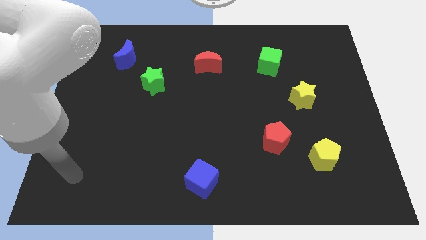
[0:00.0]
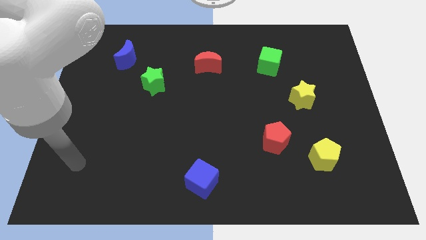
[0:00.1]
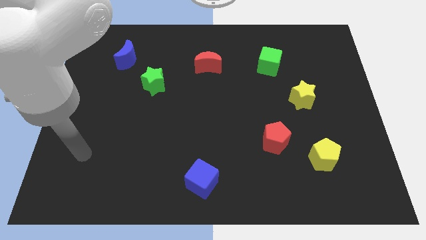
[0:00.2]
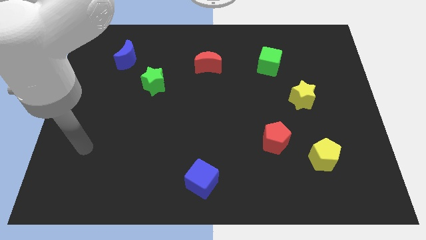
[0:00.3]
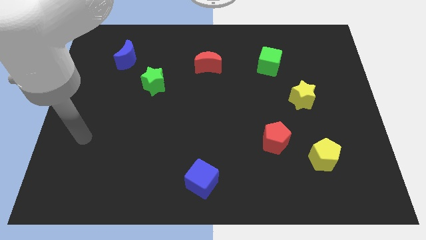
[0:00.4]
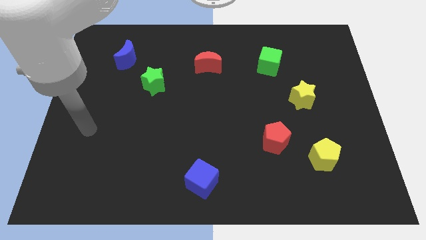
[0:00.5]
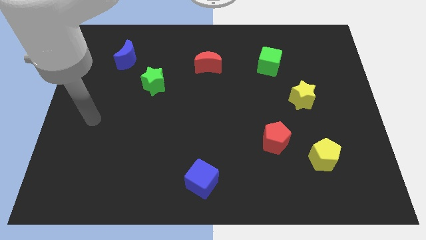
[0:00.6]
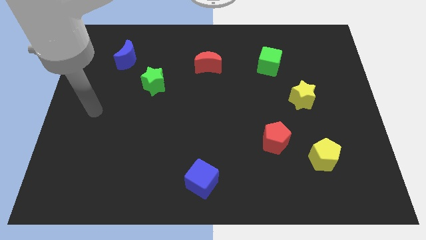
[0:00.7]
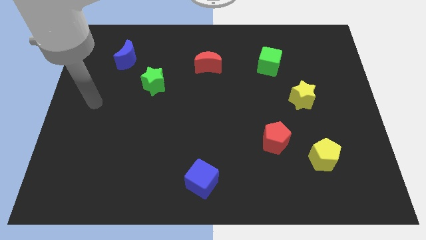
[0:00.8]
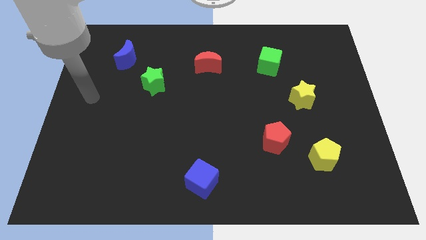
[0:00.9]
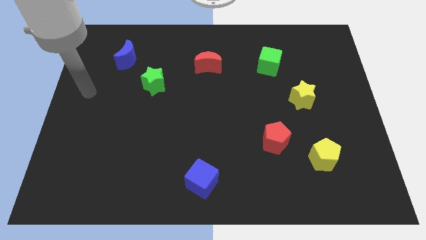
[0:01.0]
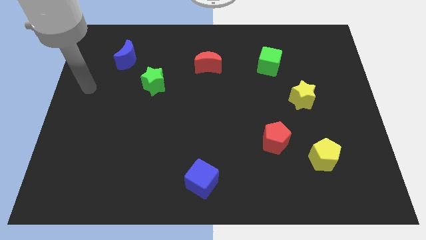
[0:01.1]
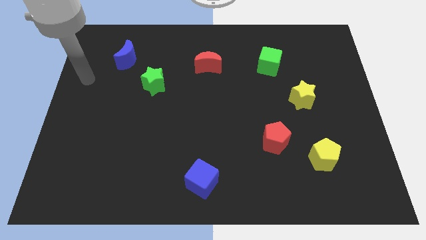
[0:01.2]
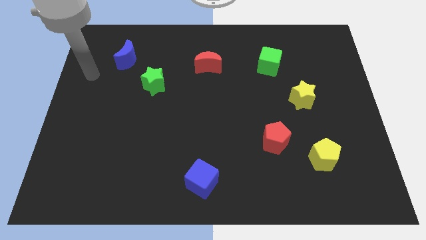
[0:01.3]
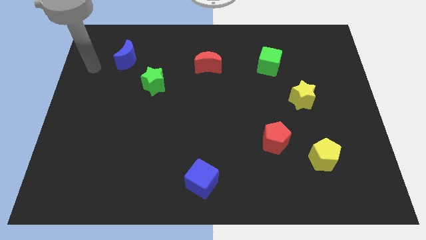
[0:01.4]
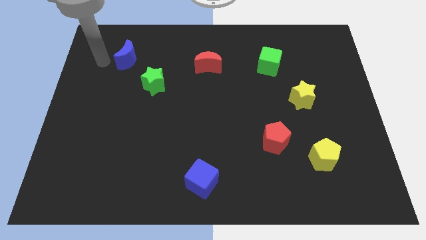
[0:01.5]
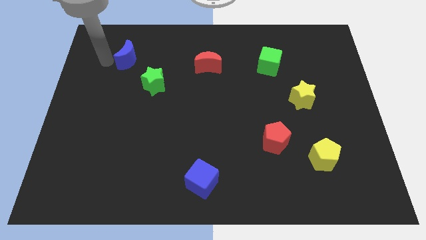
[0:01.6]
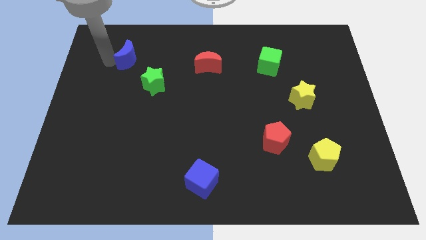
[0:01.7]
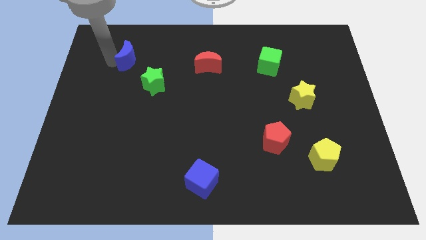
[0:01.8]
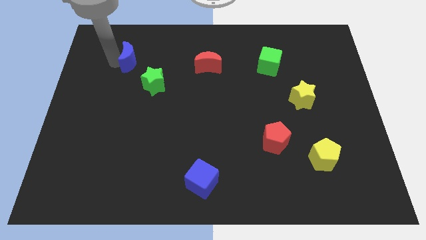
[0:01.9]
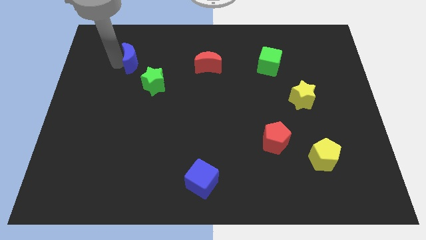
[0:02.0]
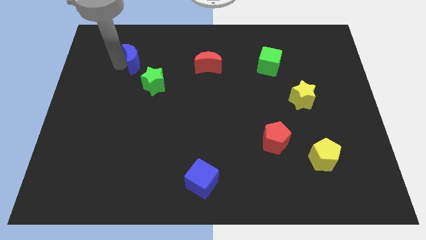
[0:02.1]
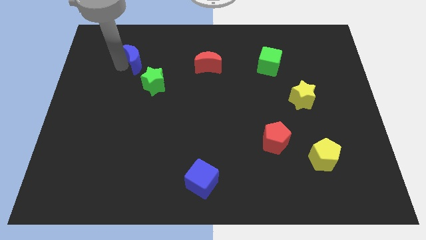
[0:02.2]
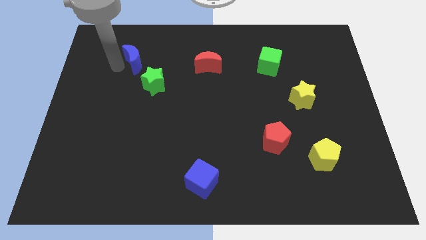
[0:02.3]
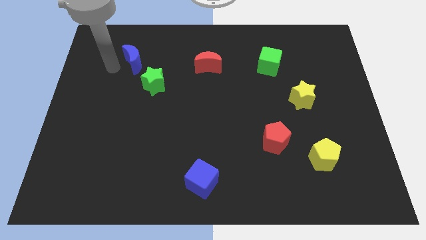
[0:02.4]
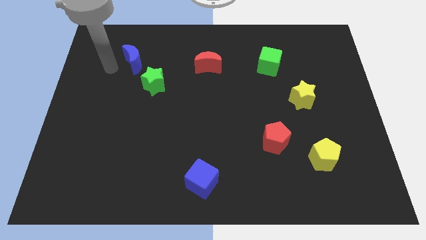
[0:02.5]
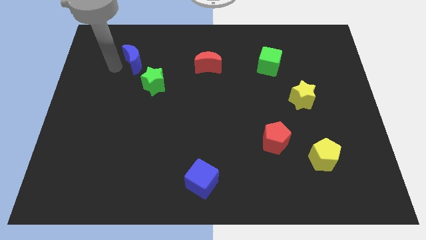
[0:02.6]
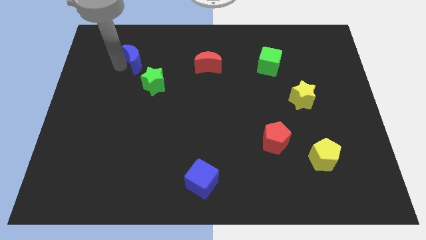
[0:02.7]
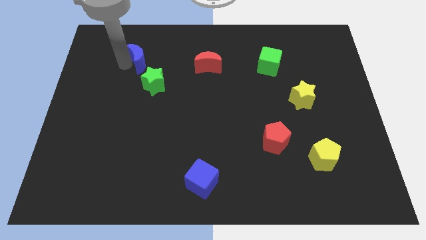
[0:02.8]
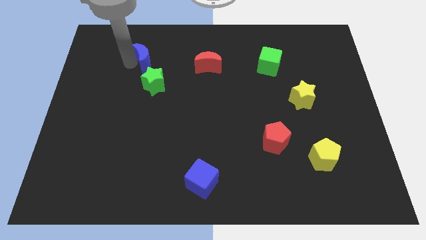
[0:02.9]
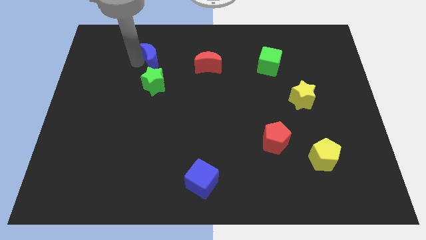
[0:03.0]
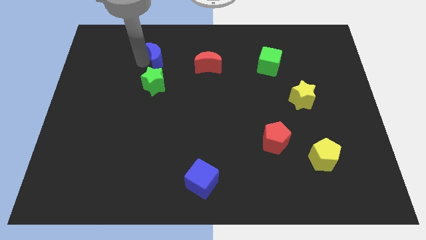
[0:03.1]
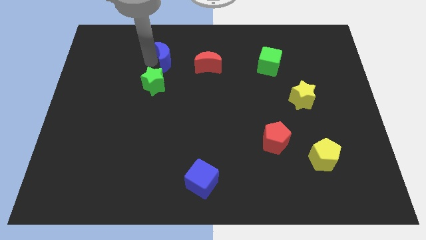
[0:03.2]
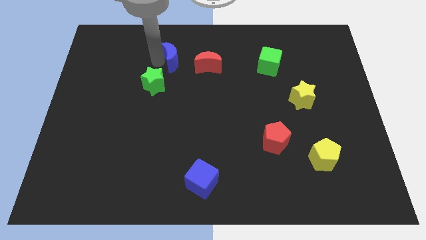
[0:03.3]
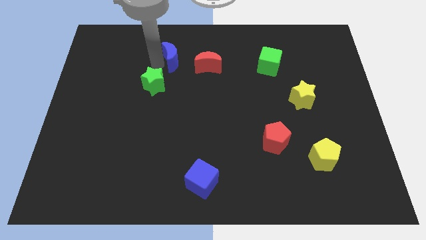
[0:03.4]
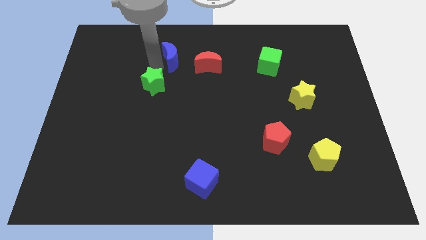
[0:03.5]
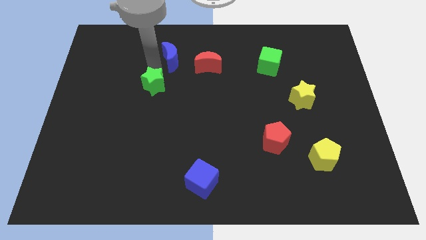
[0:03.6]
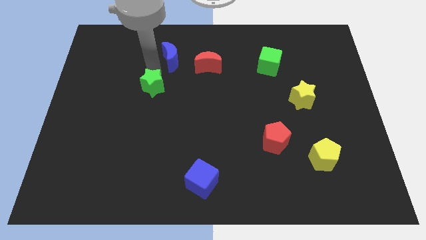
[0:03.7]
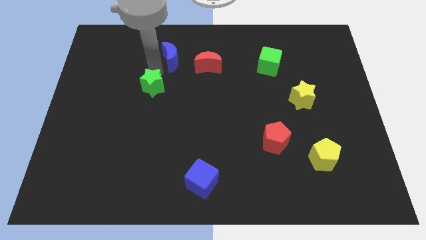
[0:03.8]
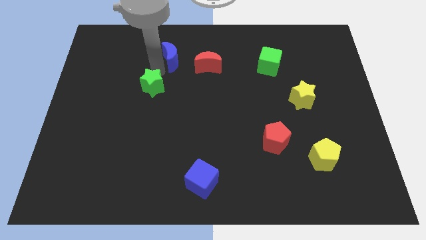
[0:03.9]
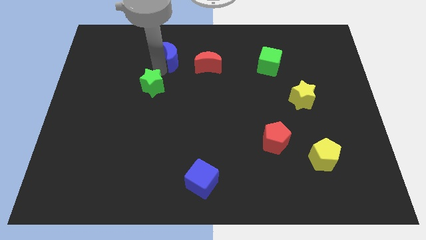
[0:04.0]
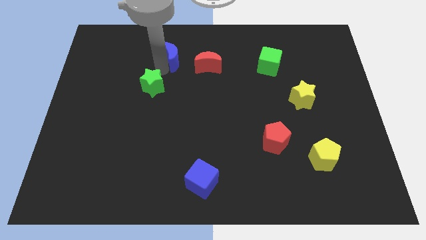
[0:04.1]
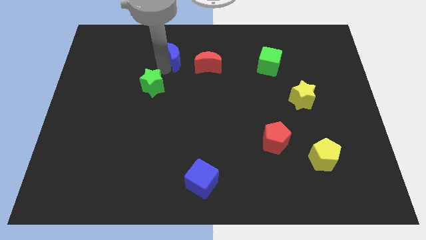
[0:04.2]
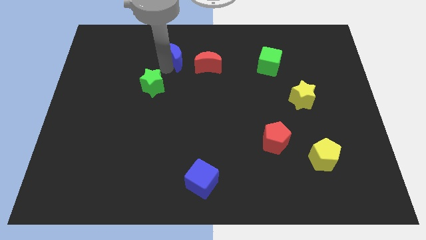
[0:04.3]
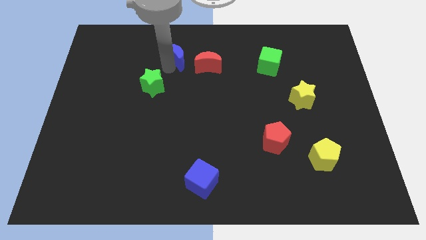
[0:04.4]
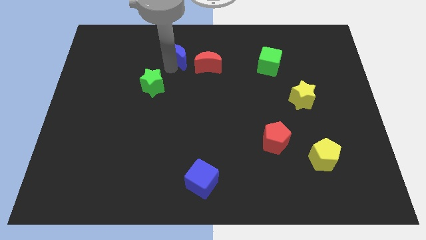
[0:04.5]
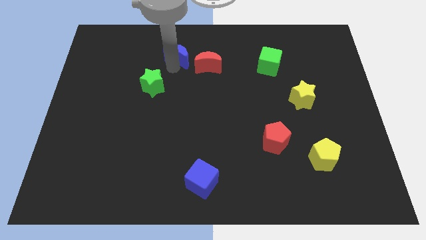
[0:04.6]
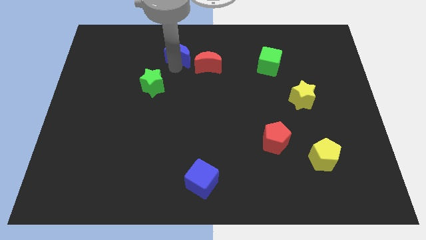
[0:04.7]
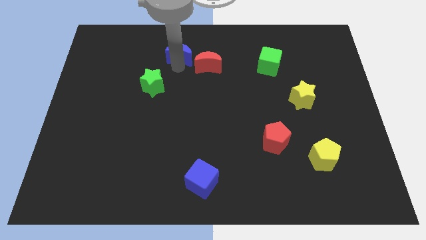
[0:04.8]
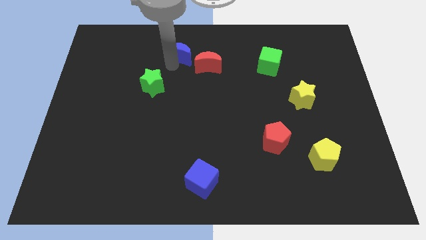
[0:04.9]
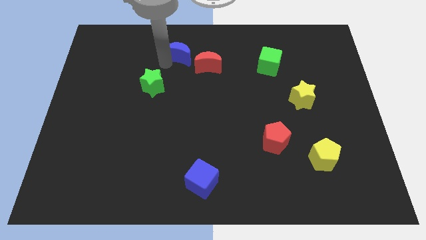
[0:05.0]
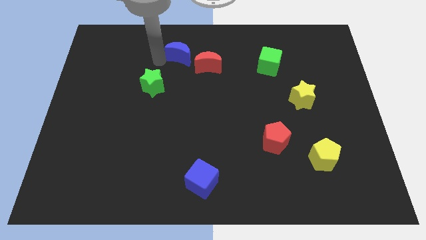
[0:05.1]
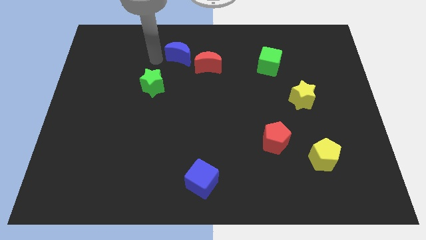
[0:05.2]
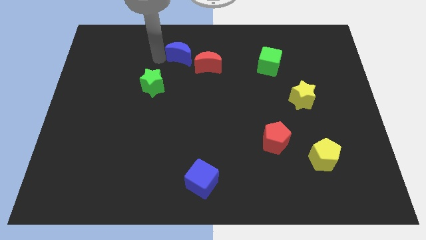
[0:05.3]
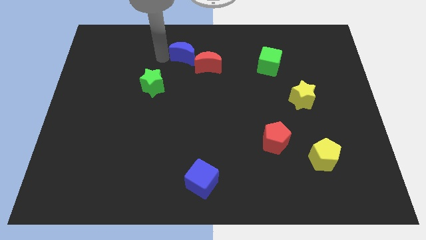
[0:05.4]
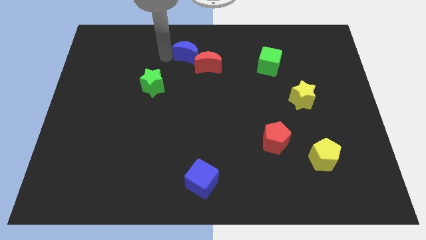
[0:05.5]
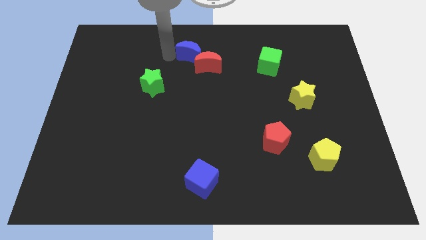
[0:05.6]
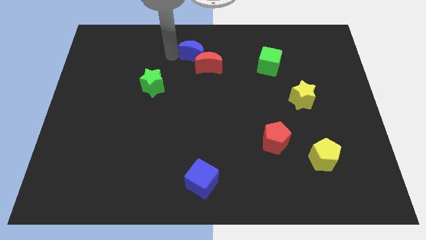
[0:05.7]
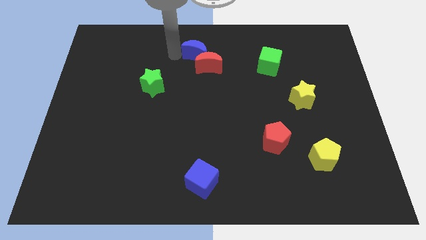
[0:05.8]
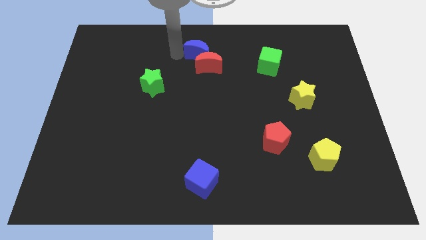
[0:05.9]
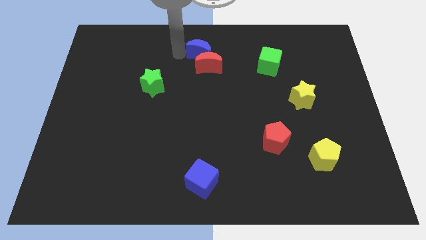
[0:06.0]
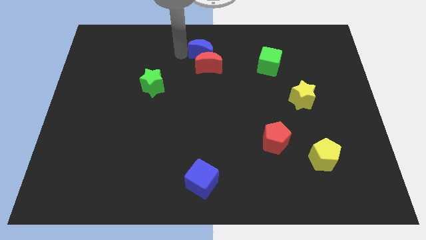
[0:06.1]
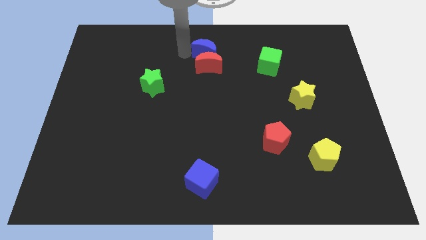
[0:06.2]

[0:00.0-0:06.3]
slide the blue moon right

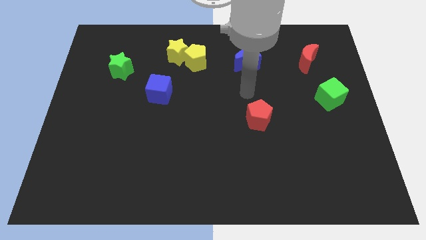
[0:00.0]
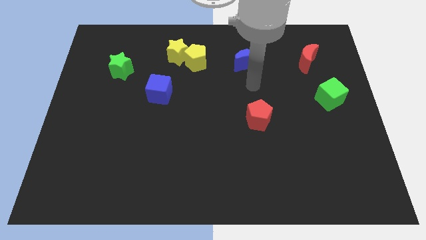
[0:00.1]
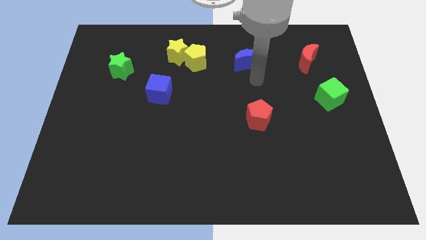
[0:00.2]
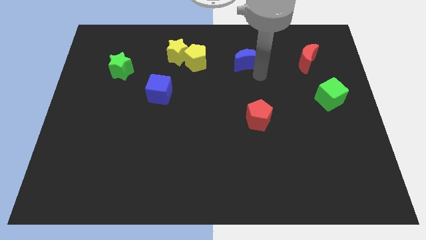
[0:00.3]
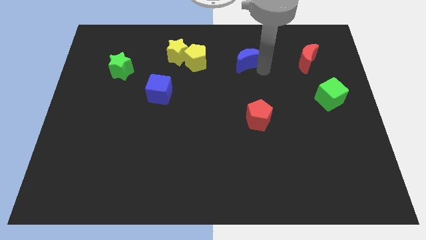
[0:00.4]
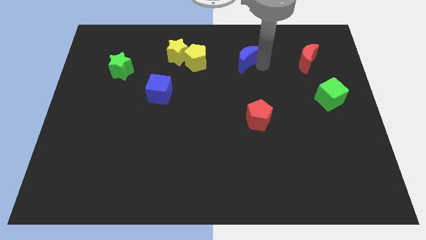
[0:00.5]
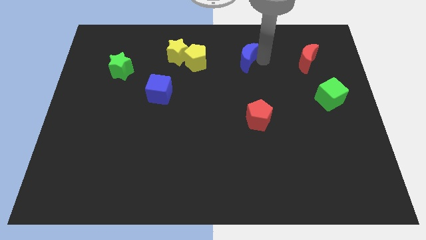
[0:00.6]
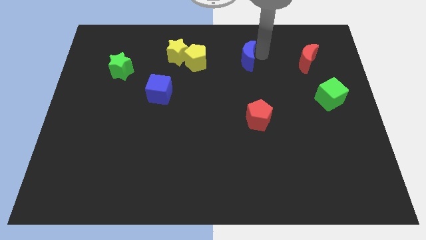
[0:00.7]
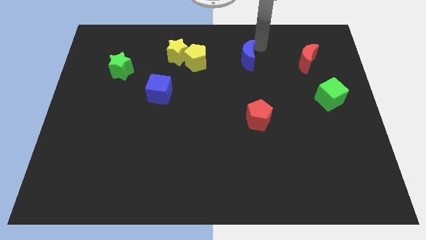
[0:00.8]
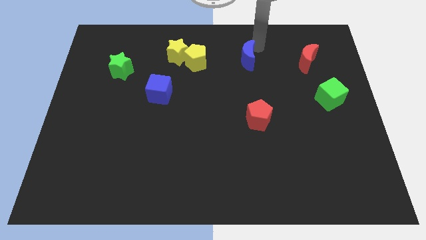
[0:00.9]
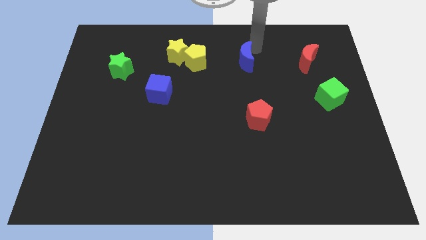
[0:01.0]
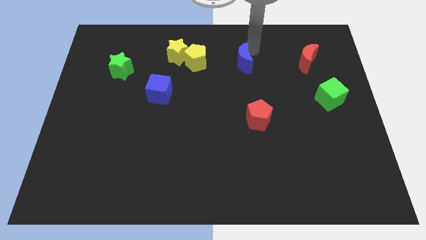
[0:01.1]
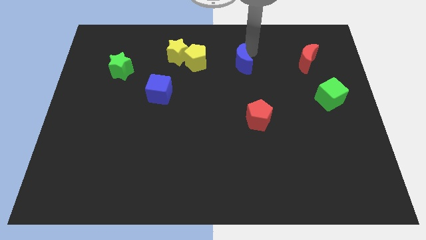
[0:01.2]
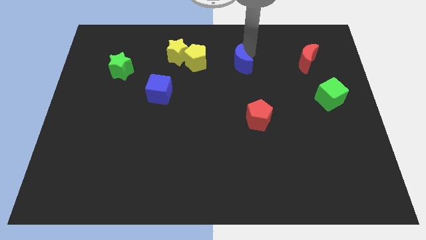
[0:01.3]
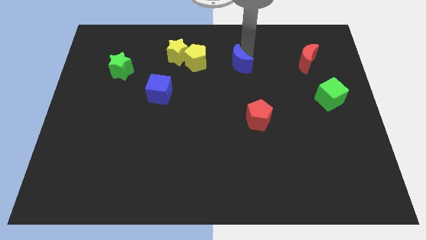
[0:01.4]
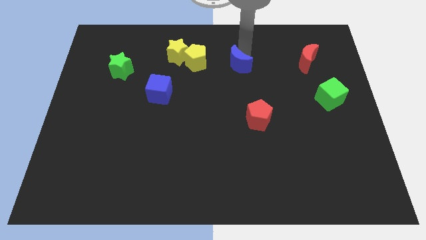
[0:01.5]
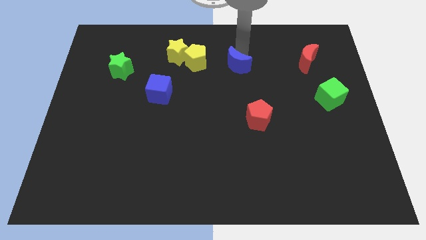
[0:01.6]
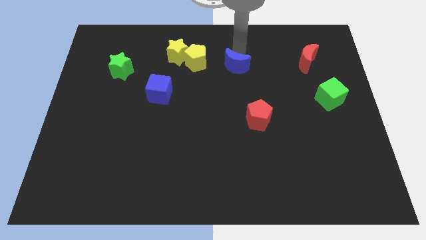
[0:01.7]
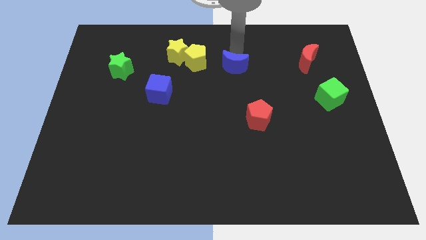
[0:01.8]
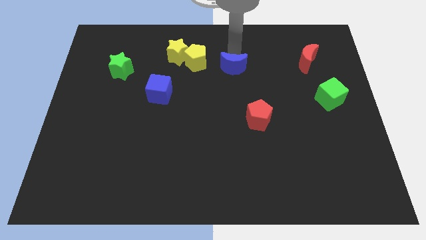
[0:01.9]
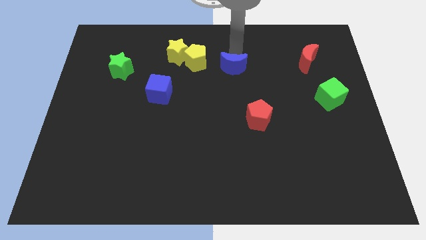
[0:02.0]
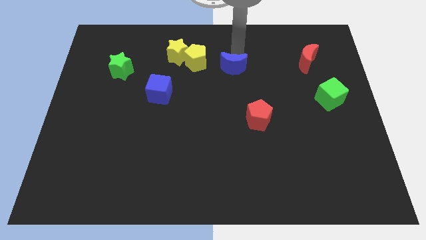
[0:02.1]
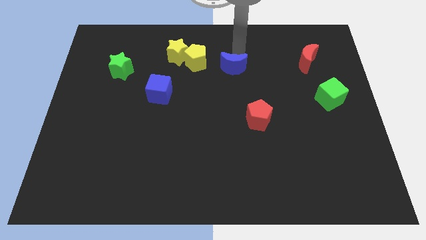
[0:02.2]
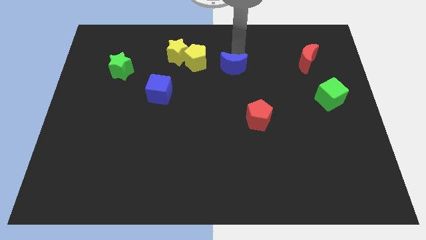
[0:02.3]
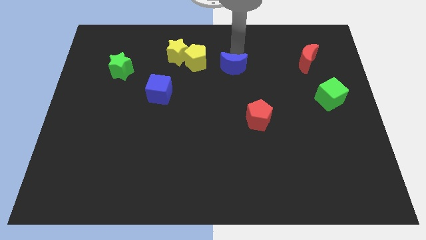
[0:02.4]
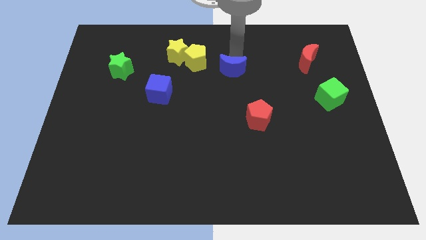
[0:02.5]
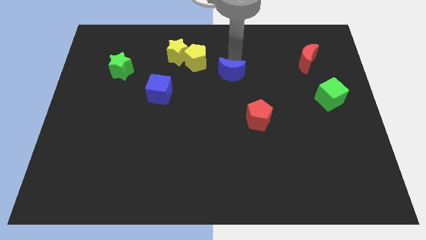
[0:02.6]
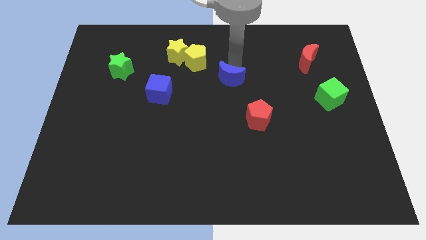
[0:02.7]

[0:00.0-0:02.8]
push the blue moon a little bit diagonally down and to the left
